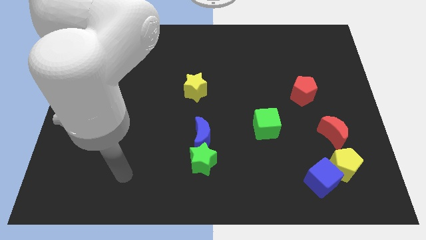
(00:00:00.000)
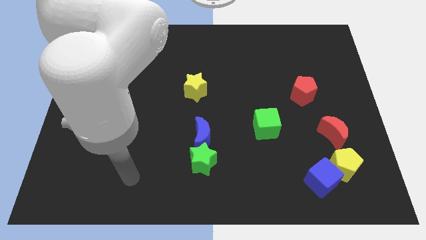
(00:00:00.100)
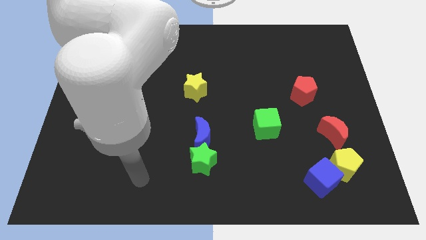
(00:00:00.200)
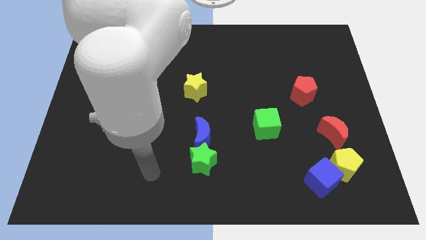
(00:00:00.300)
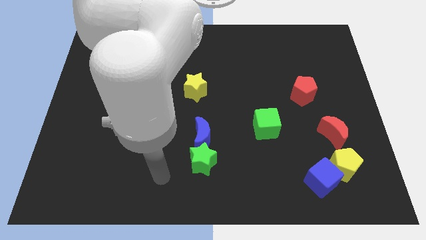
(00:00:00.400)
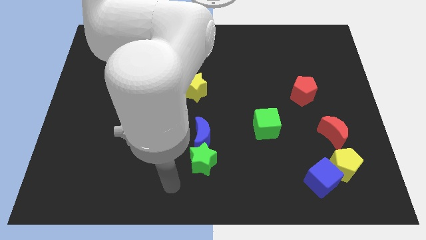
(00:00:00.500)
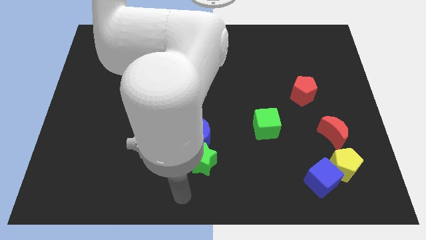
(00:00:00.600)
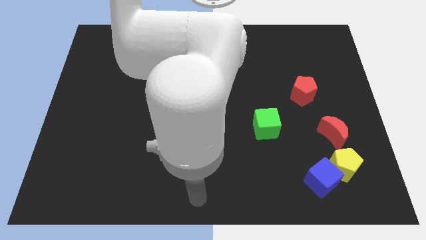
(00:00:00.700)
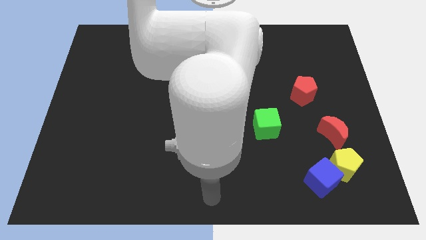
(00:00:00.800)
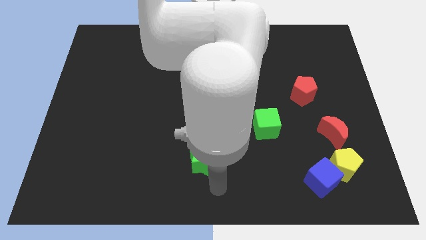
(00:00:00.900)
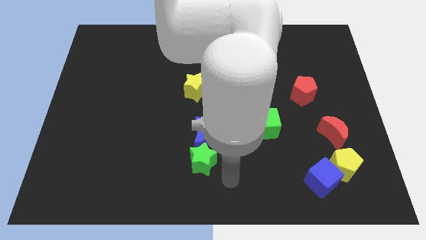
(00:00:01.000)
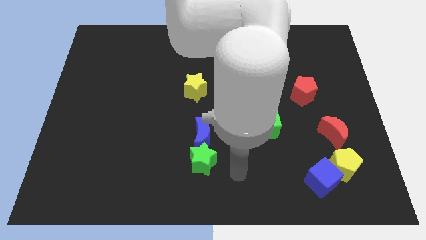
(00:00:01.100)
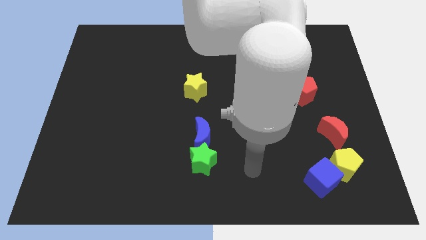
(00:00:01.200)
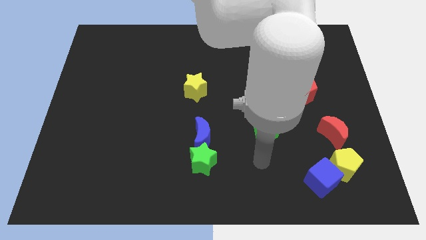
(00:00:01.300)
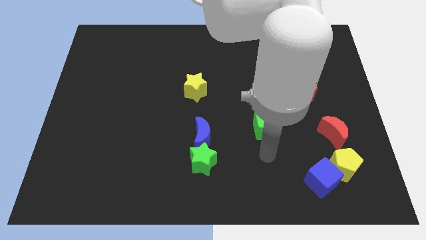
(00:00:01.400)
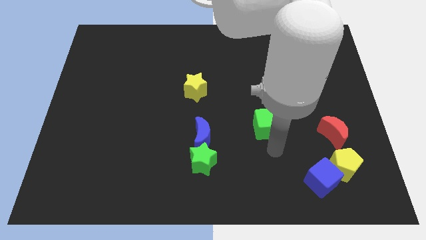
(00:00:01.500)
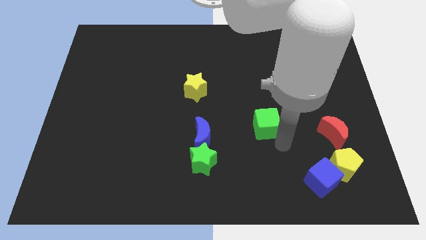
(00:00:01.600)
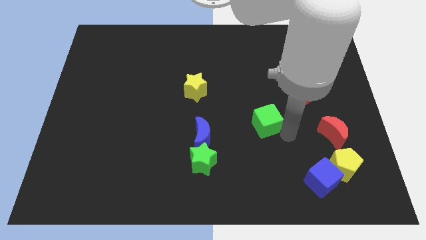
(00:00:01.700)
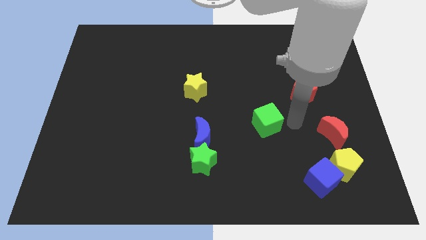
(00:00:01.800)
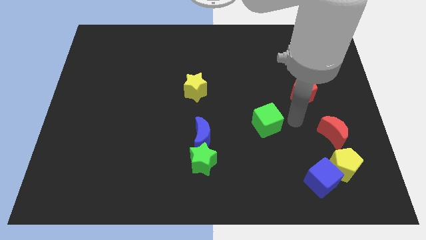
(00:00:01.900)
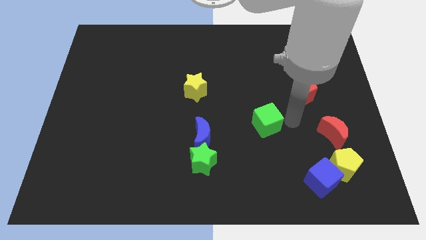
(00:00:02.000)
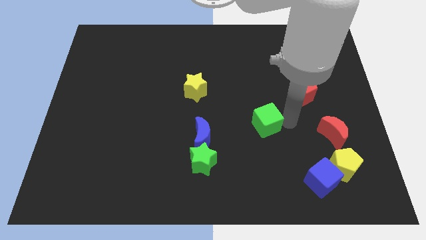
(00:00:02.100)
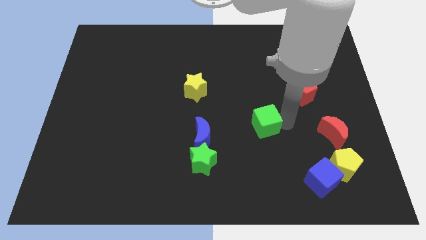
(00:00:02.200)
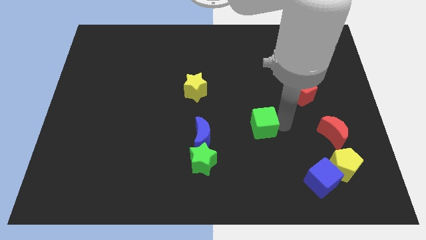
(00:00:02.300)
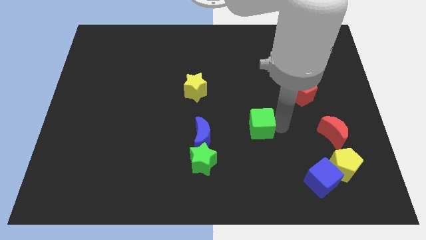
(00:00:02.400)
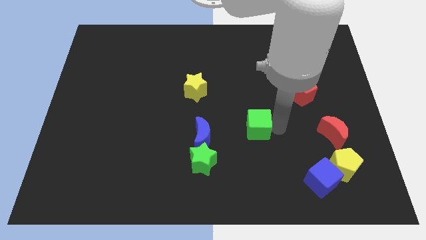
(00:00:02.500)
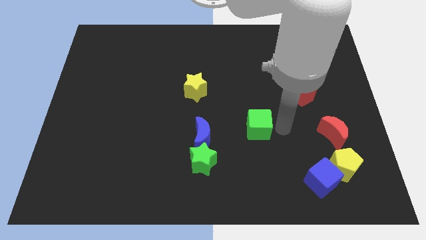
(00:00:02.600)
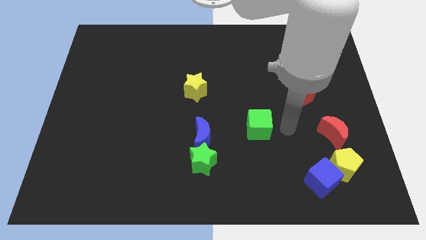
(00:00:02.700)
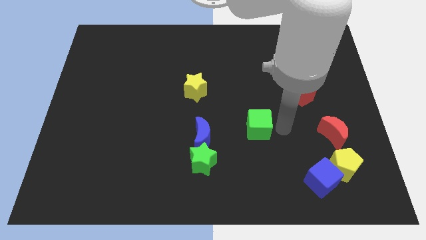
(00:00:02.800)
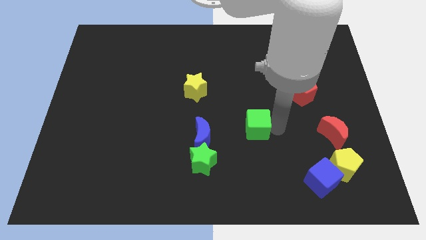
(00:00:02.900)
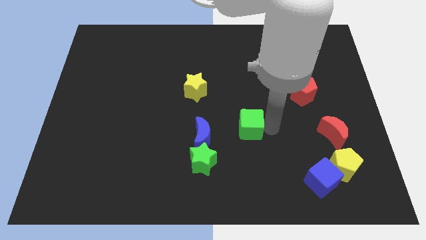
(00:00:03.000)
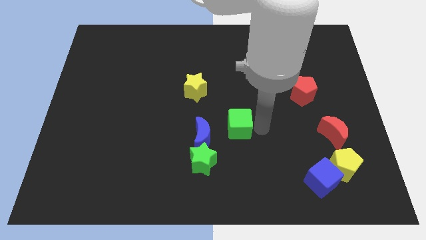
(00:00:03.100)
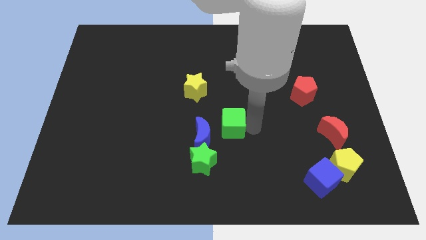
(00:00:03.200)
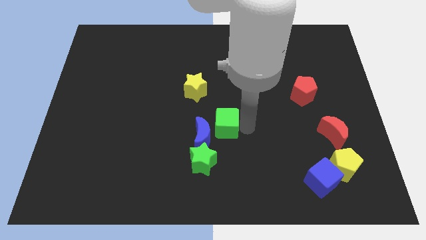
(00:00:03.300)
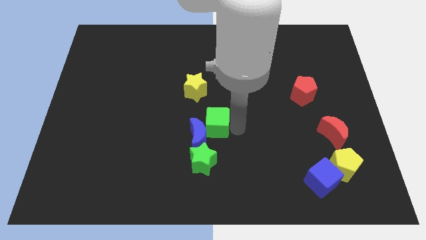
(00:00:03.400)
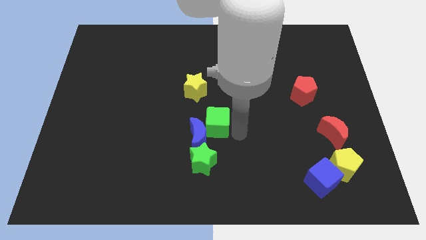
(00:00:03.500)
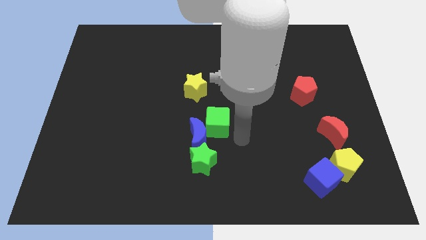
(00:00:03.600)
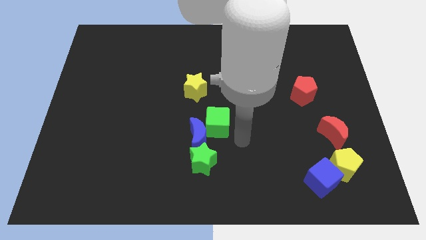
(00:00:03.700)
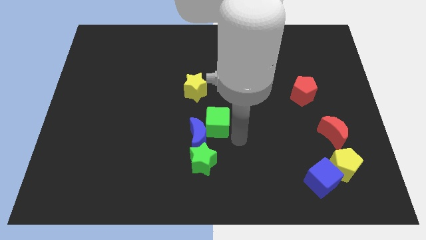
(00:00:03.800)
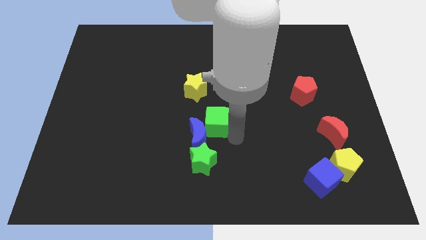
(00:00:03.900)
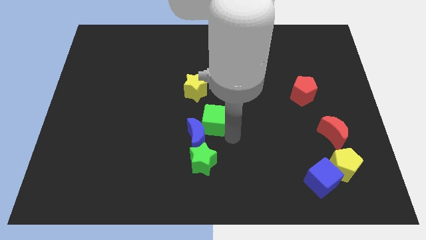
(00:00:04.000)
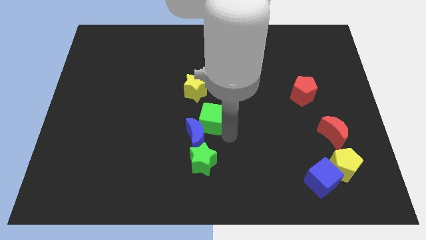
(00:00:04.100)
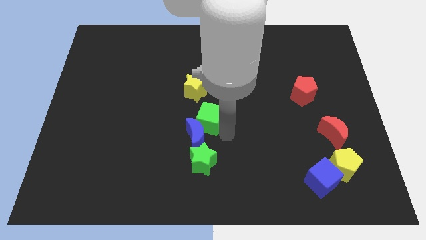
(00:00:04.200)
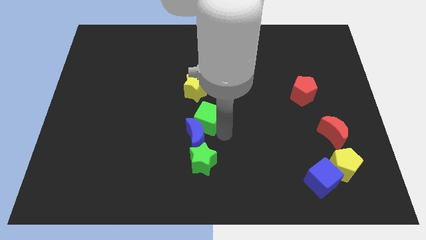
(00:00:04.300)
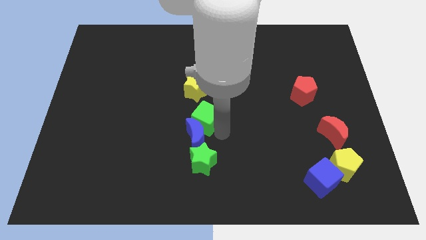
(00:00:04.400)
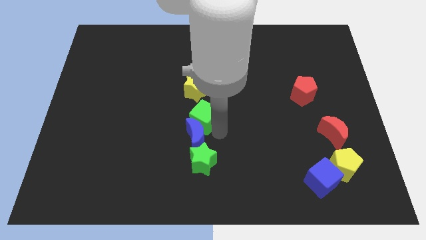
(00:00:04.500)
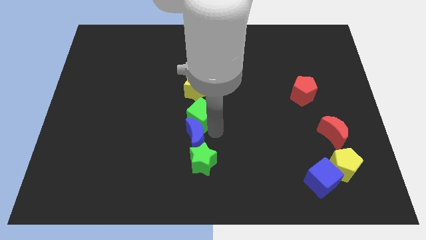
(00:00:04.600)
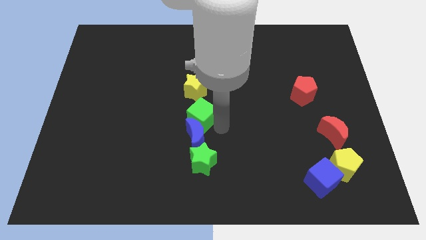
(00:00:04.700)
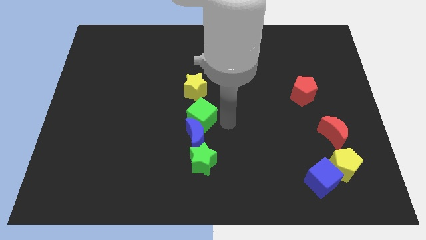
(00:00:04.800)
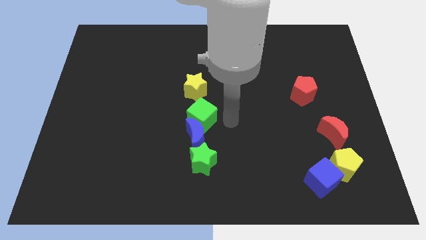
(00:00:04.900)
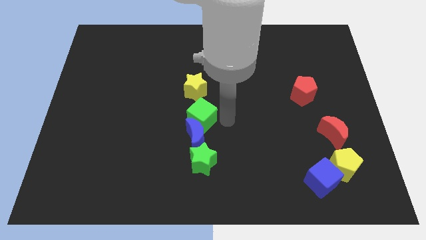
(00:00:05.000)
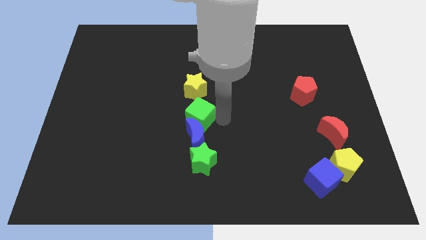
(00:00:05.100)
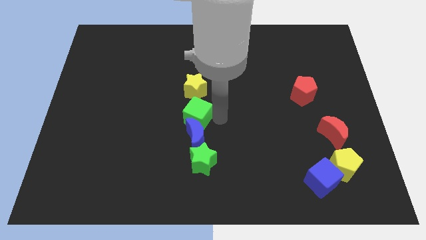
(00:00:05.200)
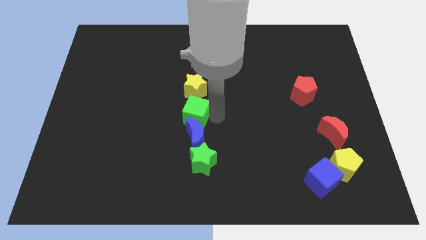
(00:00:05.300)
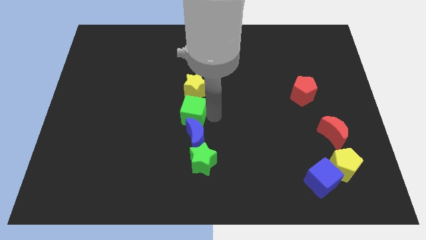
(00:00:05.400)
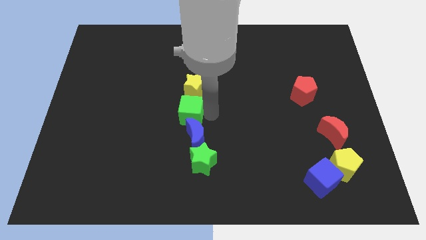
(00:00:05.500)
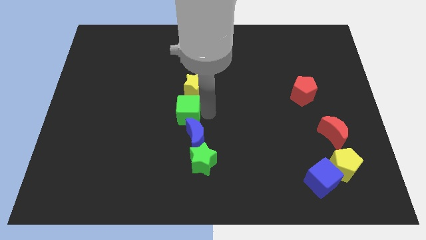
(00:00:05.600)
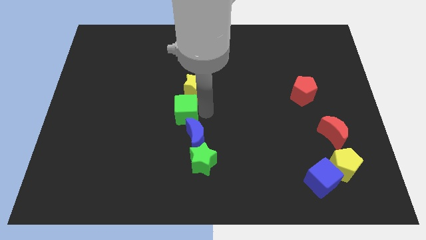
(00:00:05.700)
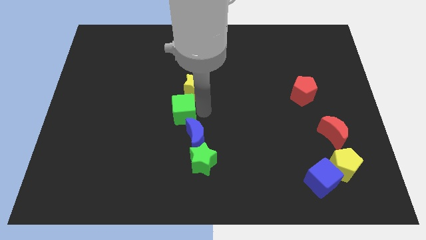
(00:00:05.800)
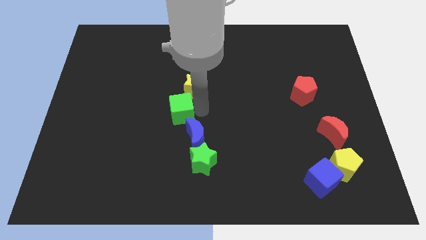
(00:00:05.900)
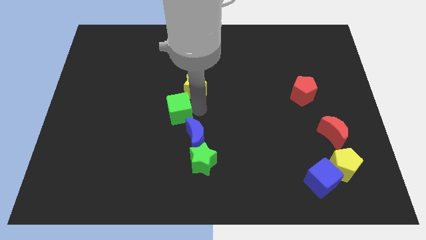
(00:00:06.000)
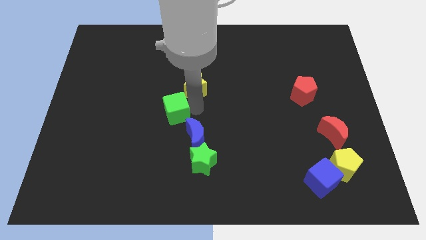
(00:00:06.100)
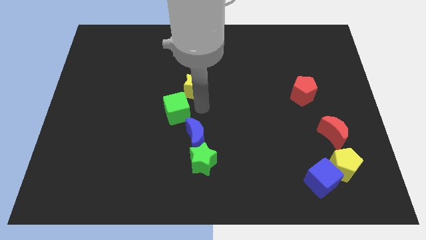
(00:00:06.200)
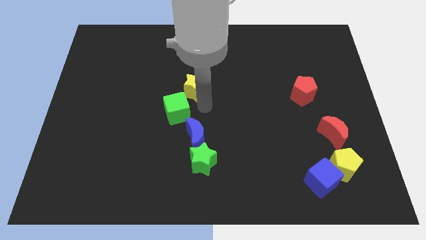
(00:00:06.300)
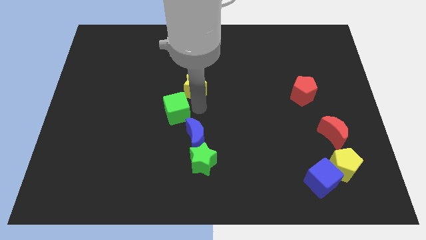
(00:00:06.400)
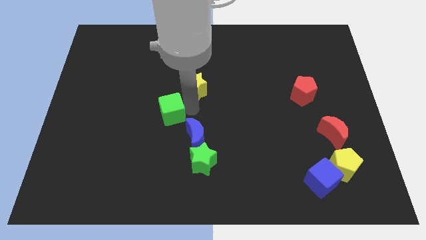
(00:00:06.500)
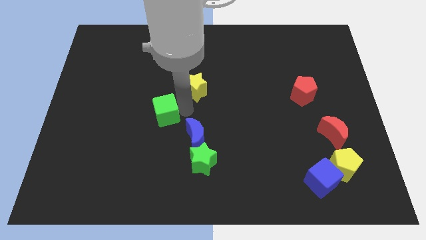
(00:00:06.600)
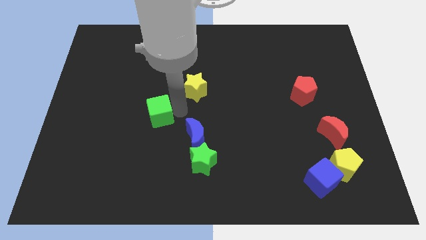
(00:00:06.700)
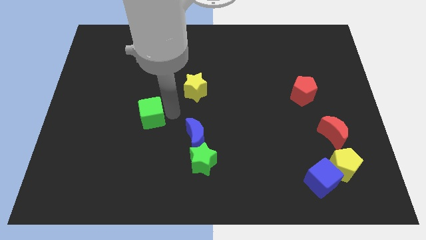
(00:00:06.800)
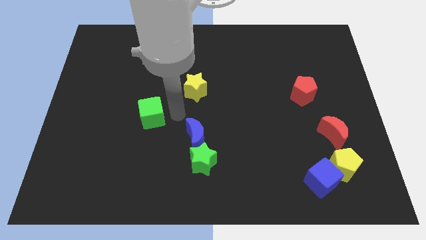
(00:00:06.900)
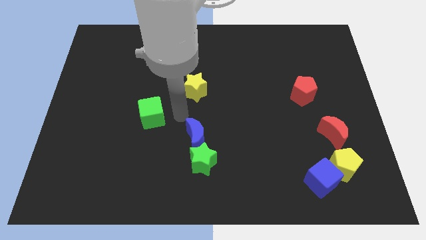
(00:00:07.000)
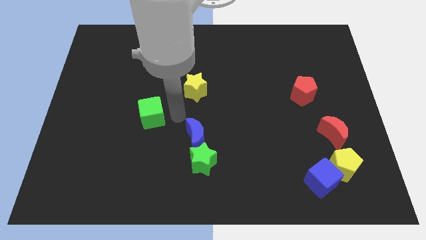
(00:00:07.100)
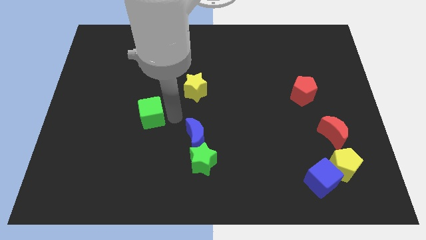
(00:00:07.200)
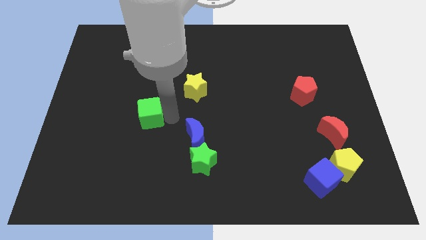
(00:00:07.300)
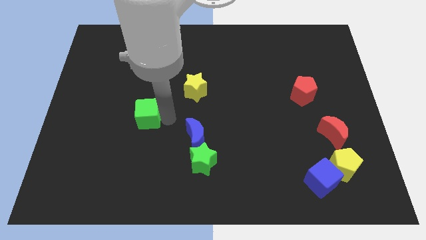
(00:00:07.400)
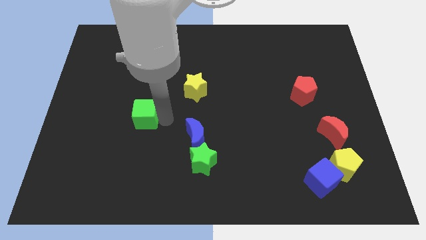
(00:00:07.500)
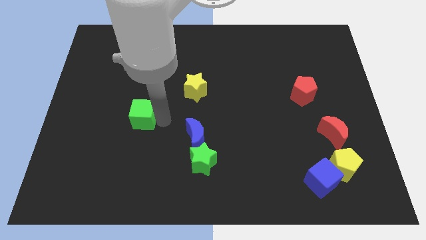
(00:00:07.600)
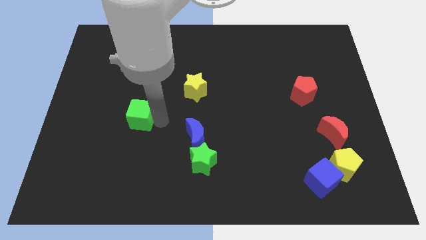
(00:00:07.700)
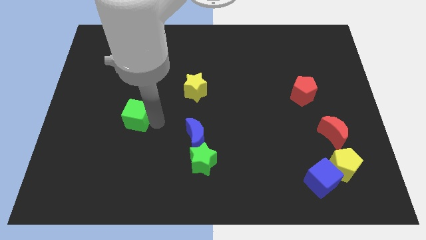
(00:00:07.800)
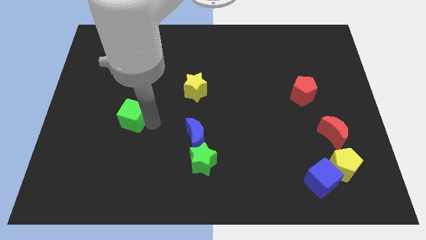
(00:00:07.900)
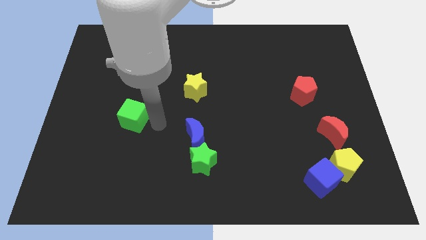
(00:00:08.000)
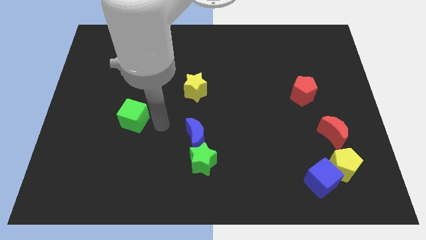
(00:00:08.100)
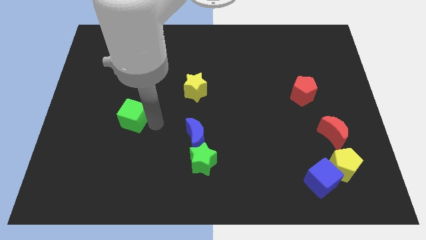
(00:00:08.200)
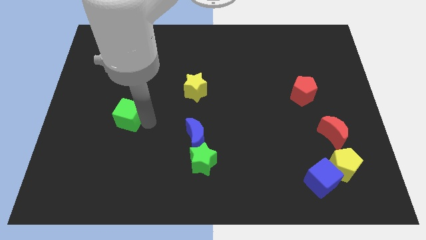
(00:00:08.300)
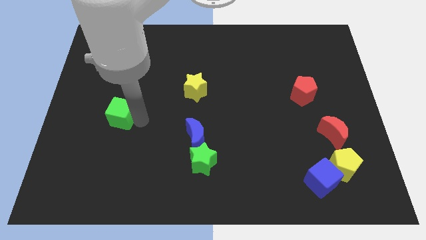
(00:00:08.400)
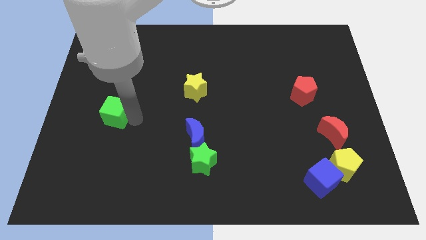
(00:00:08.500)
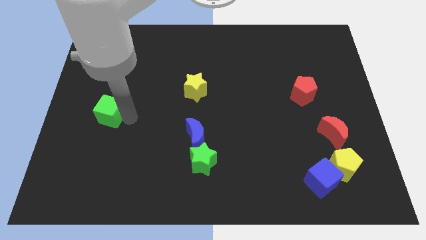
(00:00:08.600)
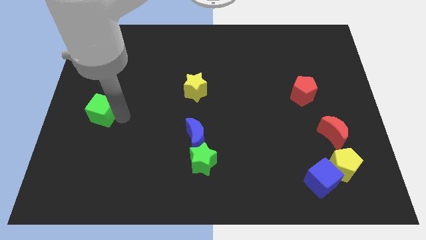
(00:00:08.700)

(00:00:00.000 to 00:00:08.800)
slide the green cube to the left side
